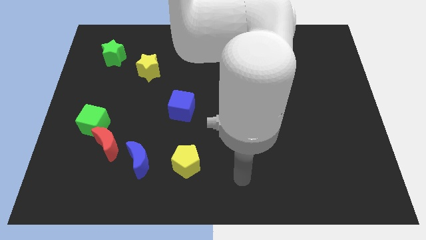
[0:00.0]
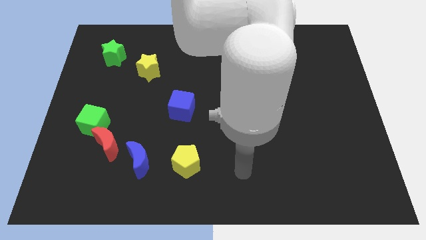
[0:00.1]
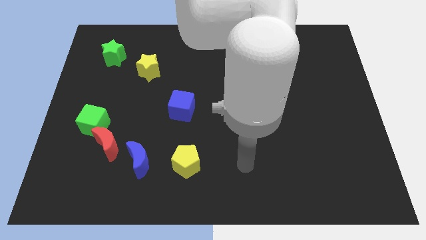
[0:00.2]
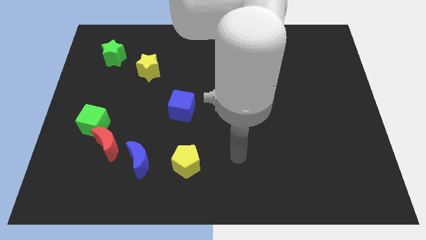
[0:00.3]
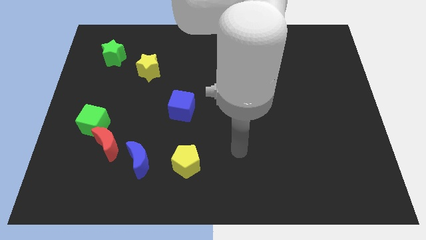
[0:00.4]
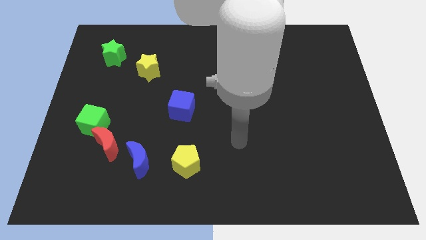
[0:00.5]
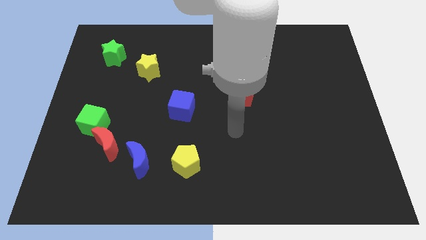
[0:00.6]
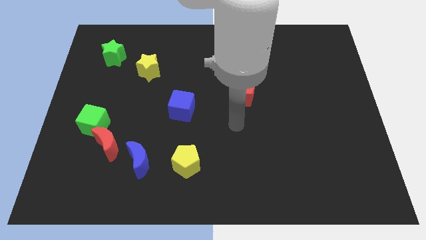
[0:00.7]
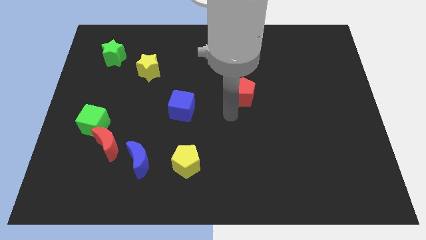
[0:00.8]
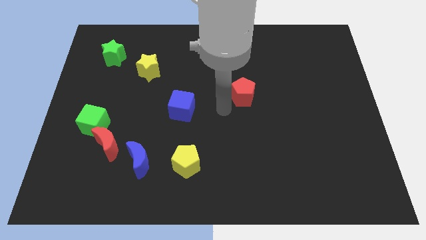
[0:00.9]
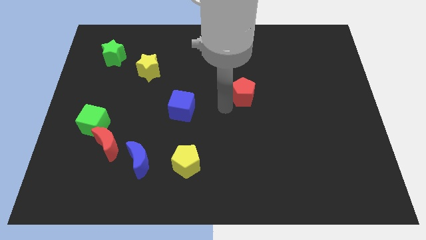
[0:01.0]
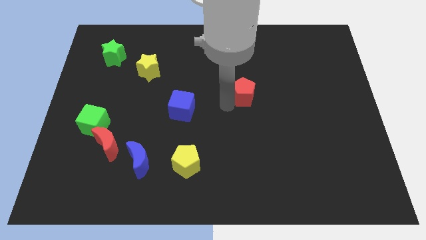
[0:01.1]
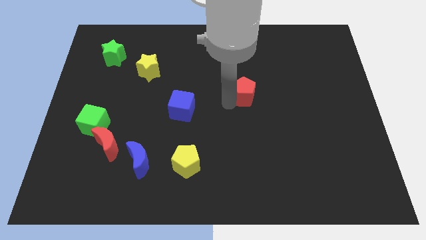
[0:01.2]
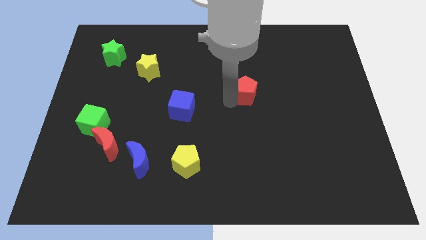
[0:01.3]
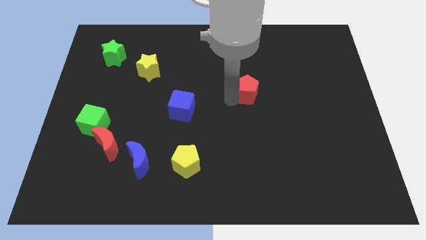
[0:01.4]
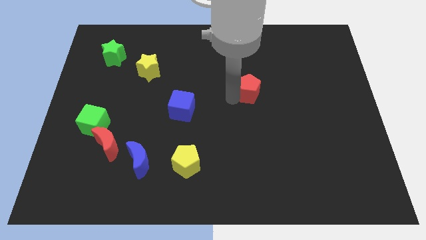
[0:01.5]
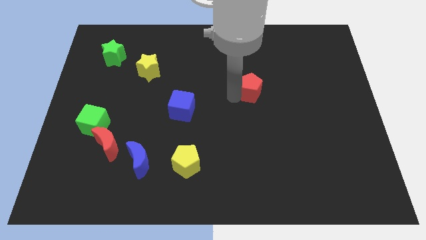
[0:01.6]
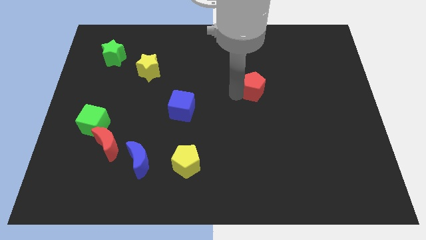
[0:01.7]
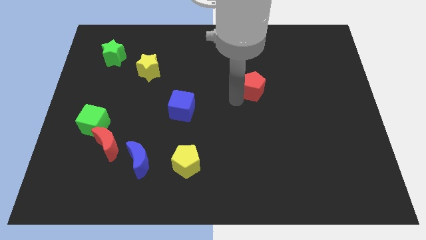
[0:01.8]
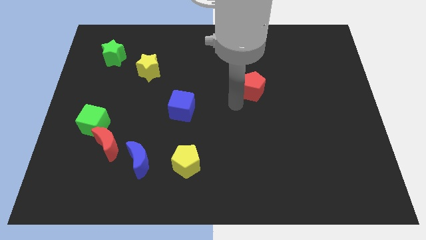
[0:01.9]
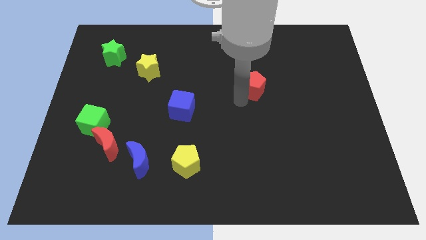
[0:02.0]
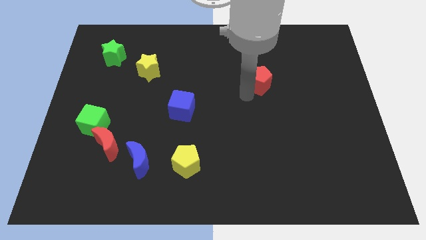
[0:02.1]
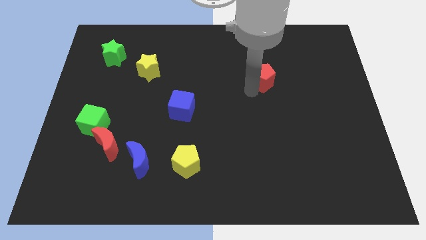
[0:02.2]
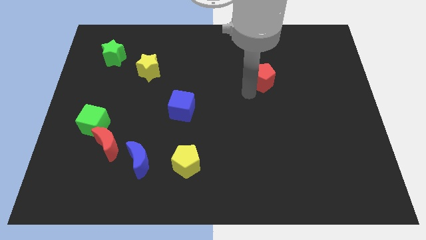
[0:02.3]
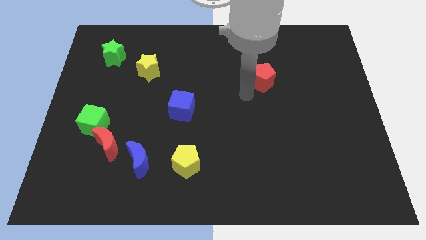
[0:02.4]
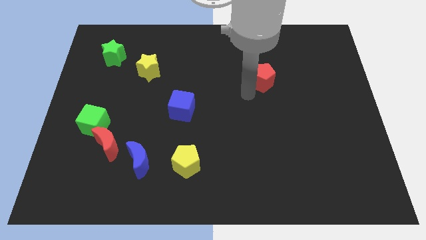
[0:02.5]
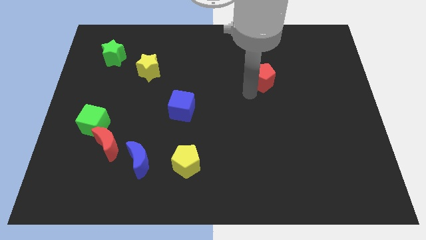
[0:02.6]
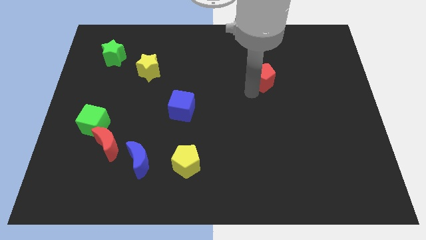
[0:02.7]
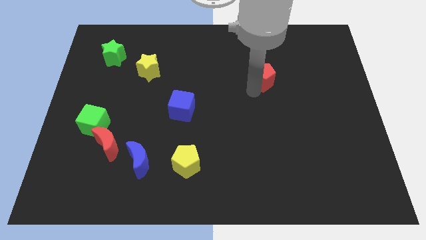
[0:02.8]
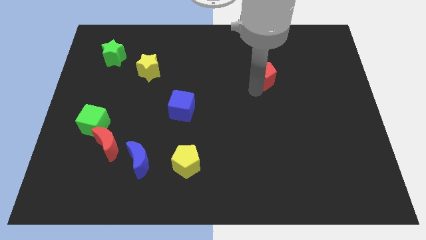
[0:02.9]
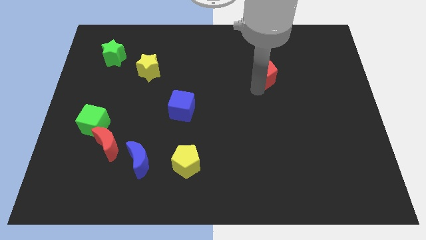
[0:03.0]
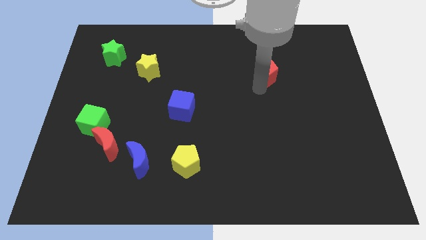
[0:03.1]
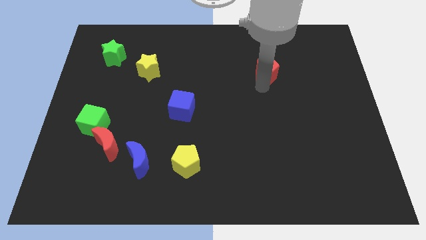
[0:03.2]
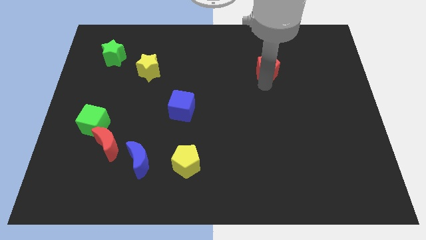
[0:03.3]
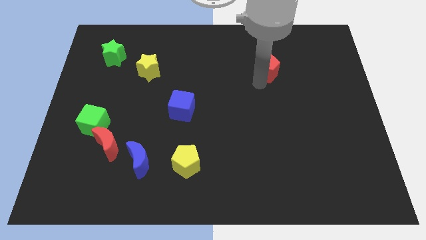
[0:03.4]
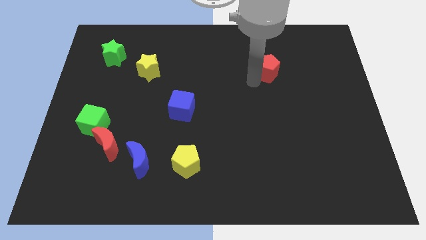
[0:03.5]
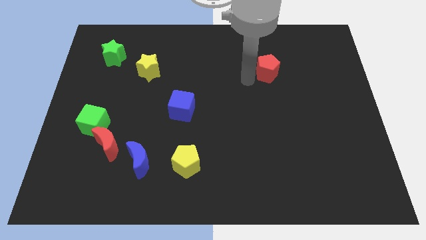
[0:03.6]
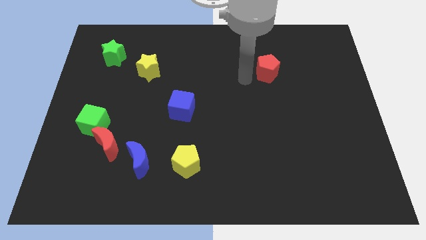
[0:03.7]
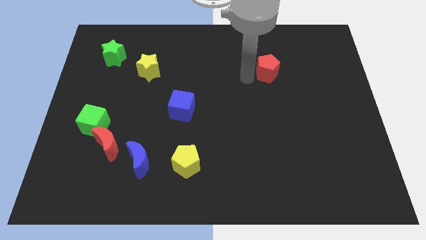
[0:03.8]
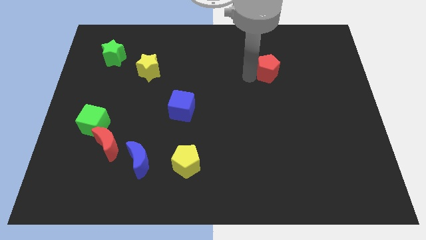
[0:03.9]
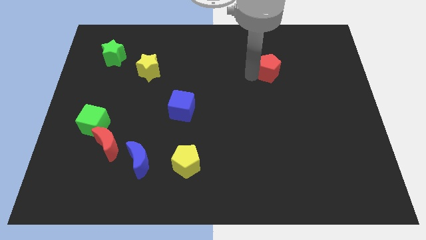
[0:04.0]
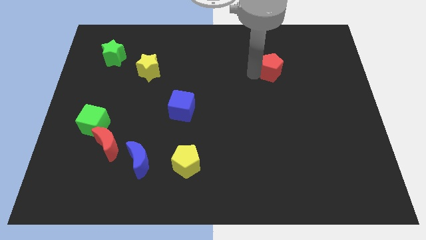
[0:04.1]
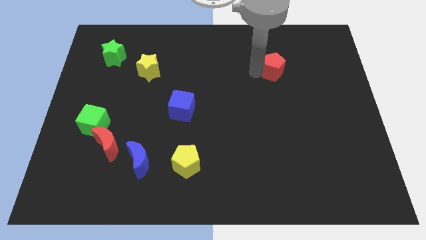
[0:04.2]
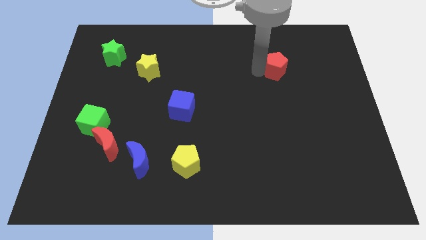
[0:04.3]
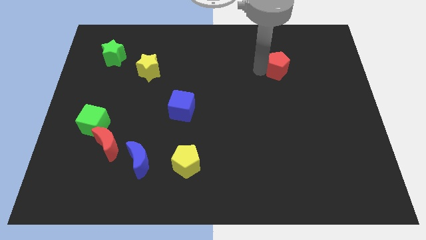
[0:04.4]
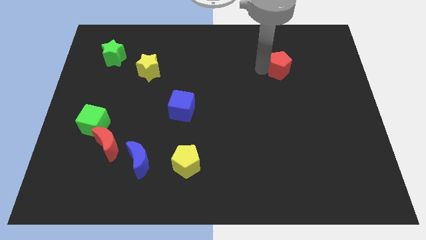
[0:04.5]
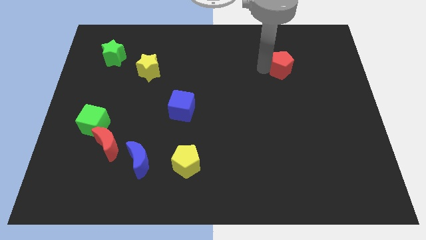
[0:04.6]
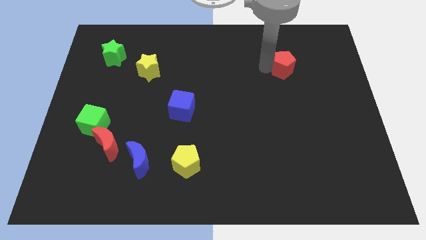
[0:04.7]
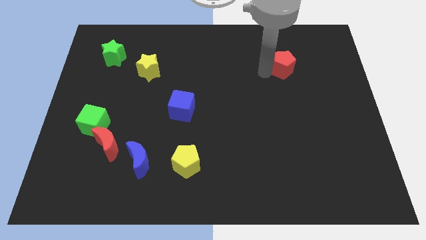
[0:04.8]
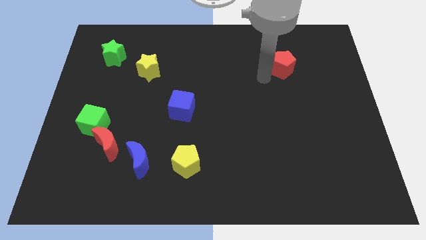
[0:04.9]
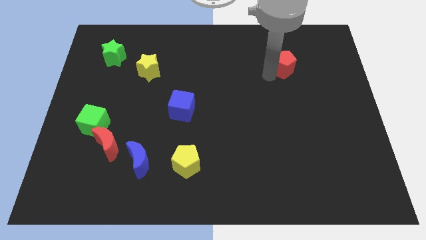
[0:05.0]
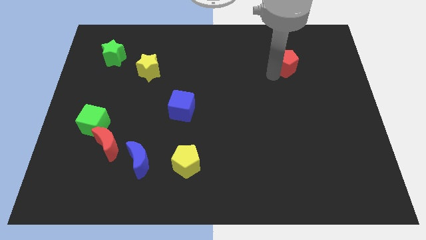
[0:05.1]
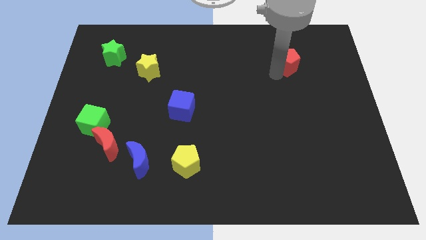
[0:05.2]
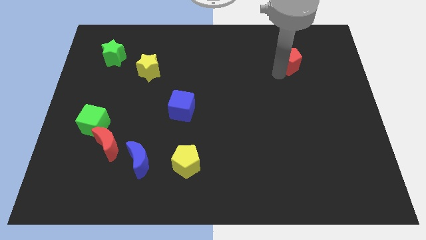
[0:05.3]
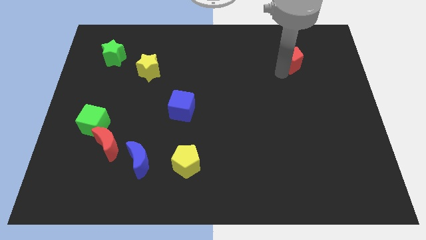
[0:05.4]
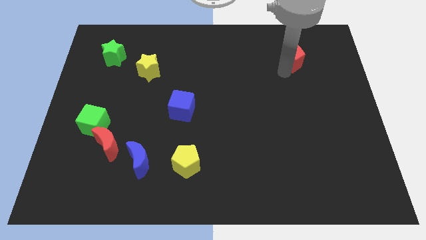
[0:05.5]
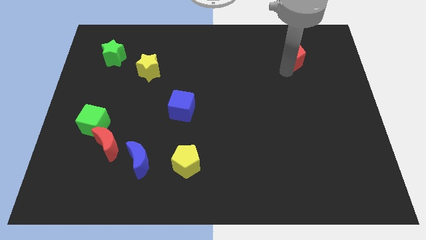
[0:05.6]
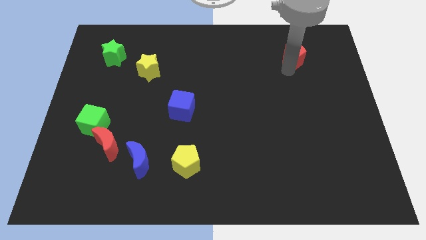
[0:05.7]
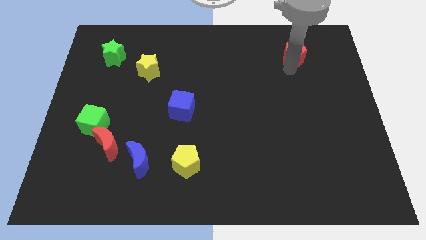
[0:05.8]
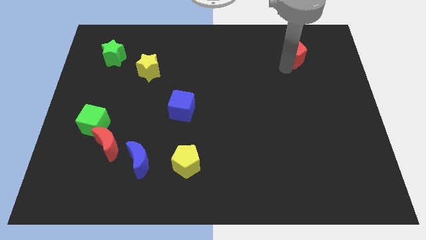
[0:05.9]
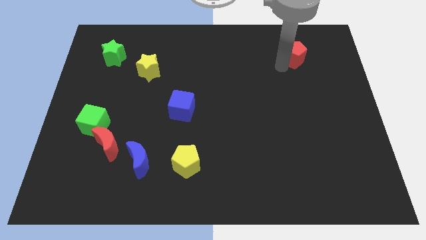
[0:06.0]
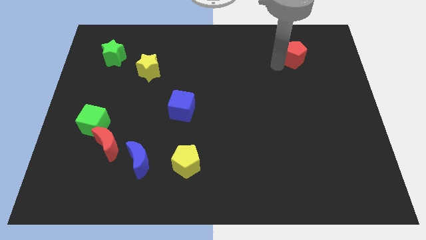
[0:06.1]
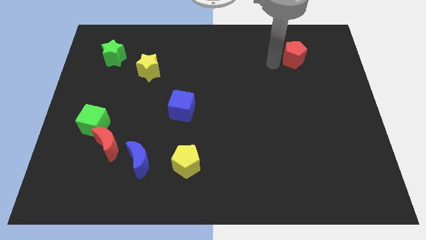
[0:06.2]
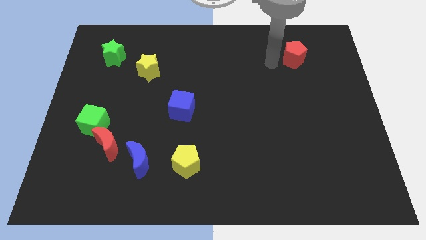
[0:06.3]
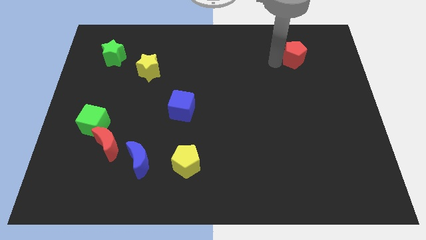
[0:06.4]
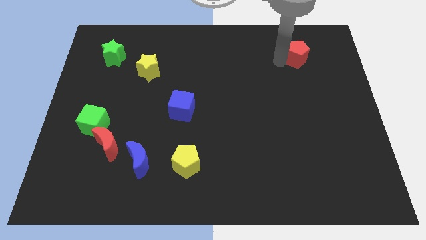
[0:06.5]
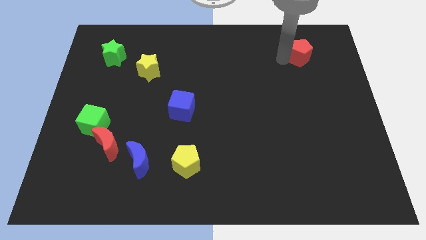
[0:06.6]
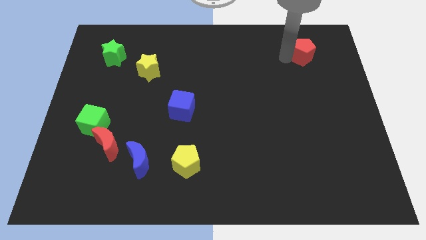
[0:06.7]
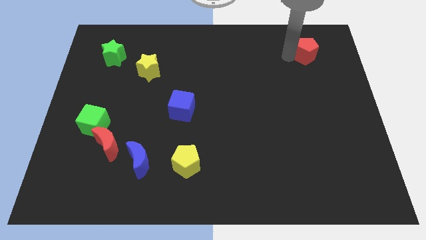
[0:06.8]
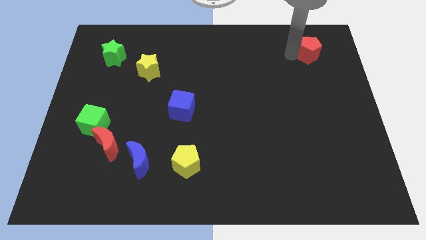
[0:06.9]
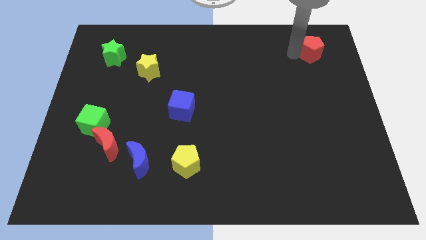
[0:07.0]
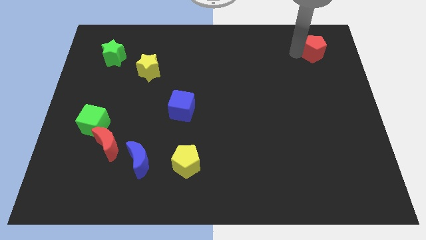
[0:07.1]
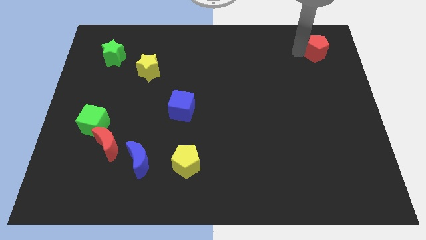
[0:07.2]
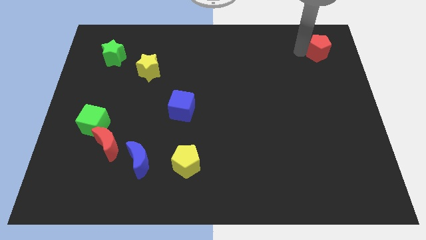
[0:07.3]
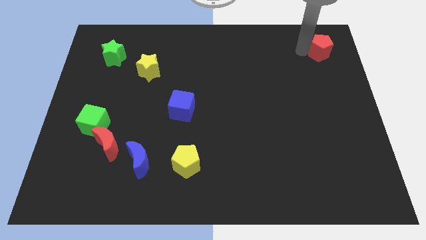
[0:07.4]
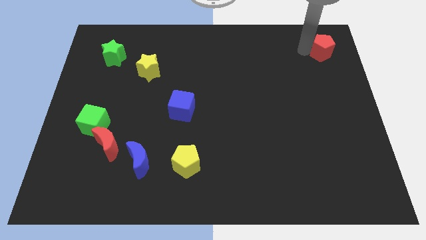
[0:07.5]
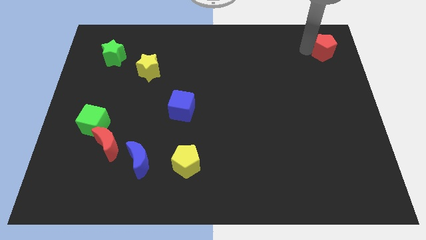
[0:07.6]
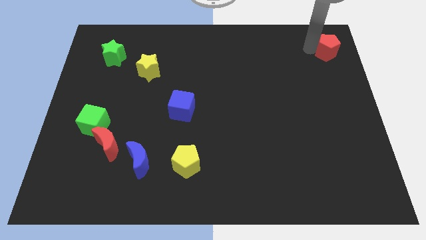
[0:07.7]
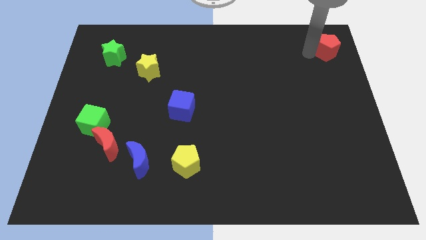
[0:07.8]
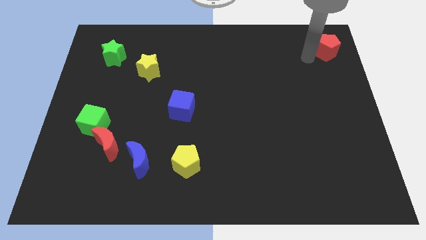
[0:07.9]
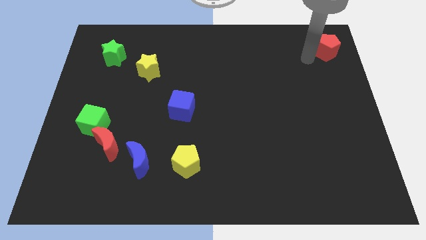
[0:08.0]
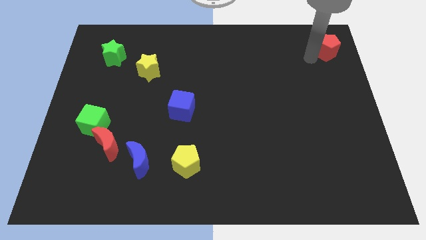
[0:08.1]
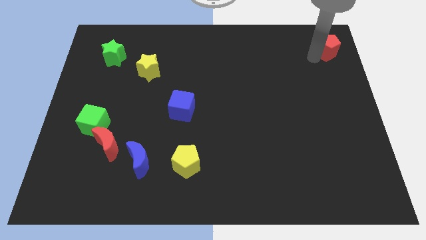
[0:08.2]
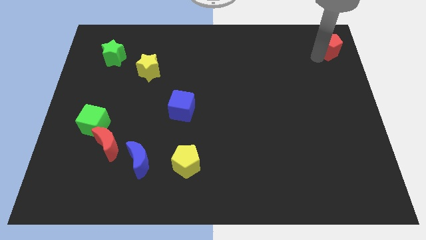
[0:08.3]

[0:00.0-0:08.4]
slide the red pentagon to the upper right corner
